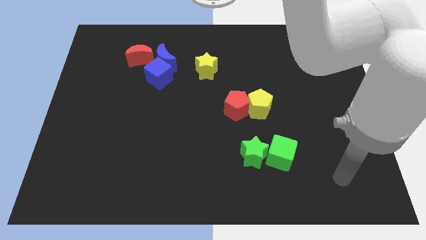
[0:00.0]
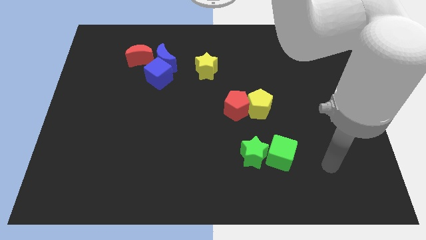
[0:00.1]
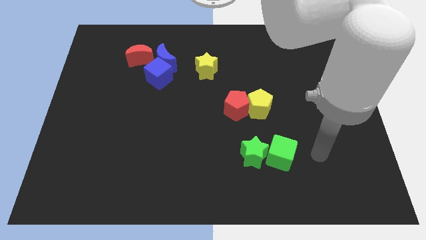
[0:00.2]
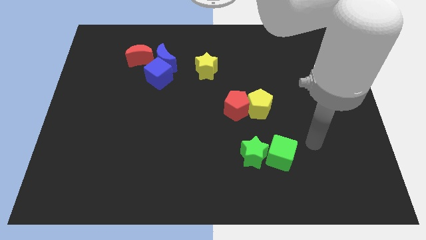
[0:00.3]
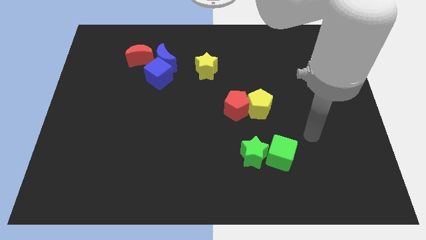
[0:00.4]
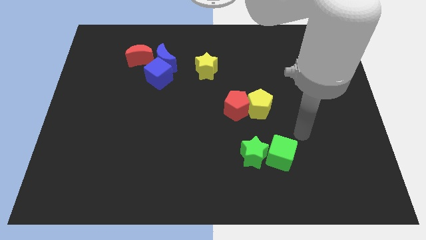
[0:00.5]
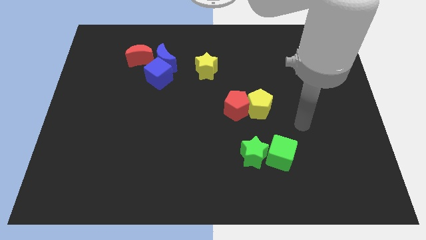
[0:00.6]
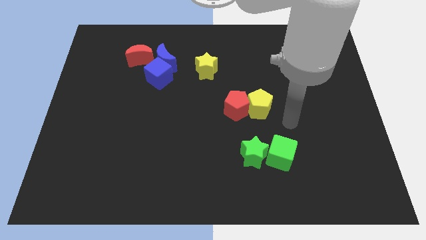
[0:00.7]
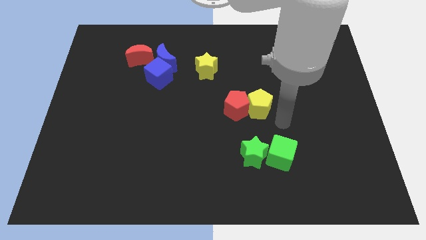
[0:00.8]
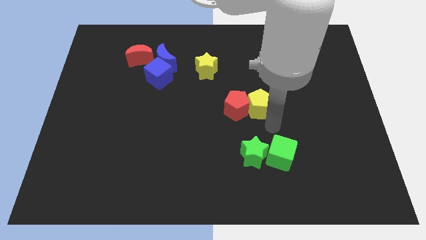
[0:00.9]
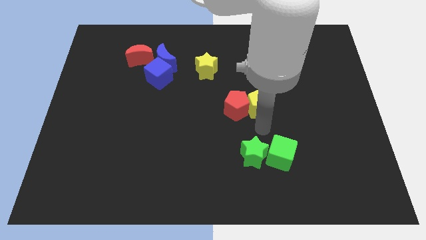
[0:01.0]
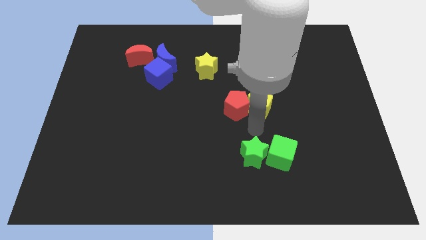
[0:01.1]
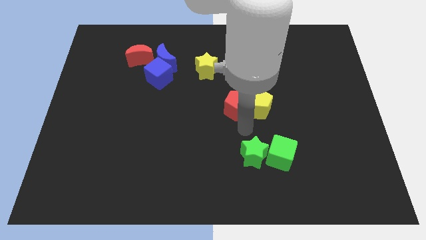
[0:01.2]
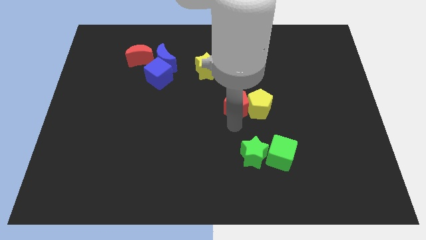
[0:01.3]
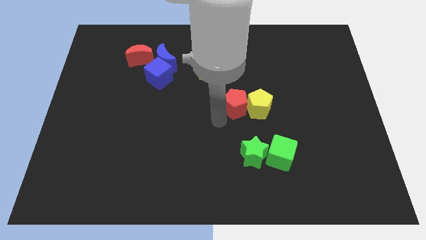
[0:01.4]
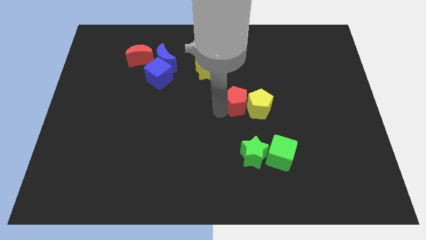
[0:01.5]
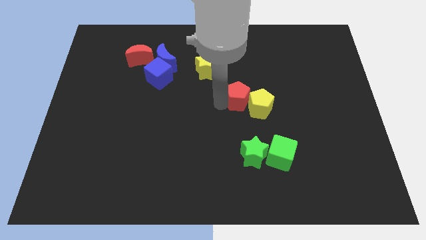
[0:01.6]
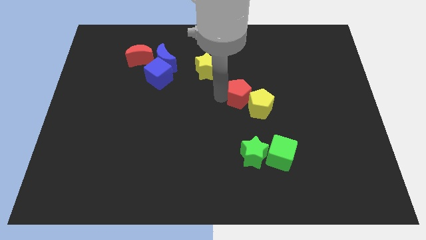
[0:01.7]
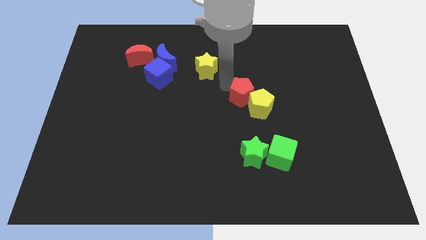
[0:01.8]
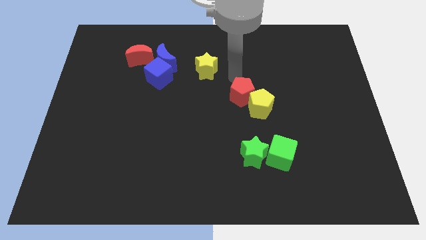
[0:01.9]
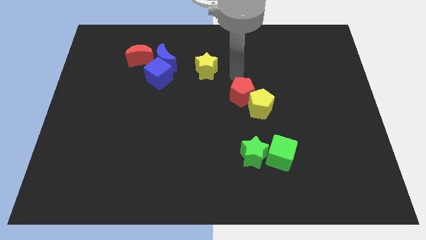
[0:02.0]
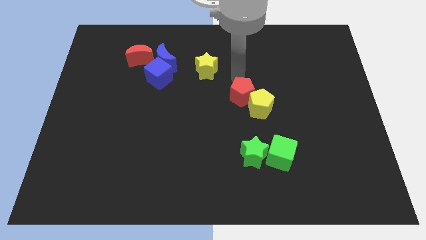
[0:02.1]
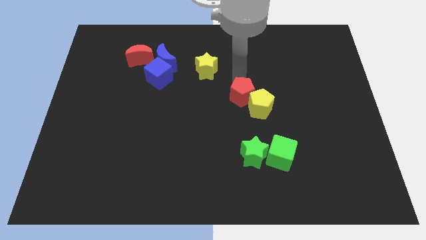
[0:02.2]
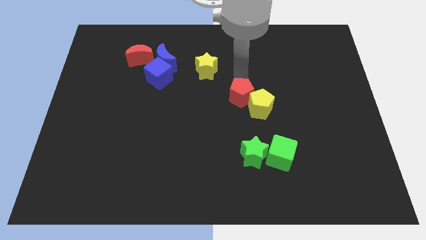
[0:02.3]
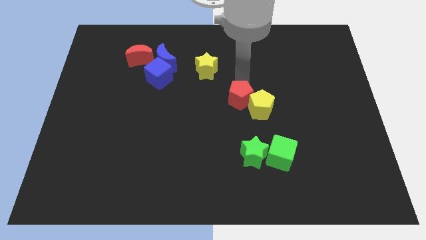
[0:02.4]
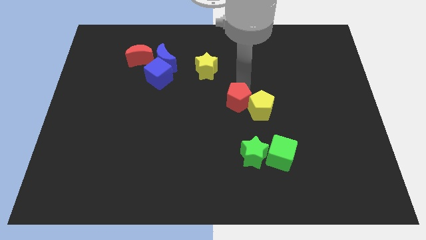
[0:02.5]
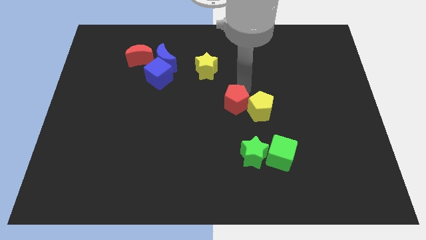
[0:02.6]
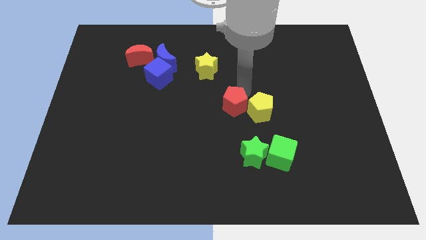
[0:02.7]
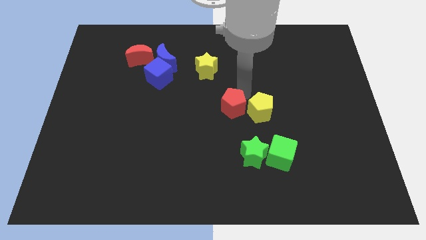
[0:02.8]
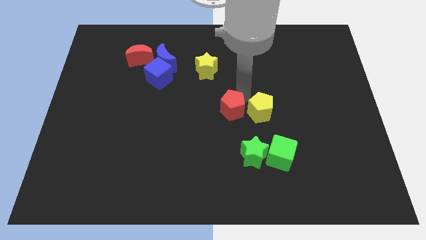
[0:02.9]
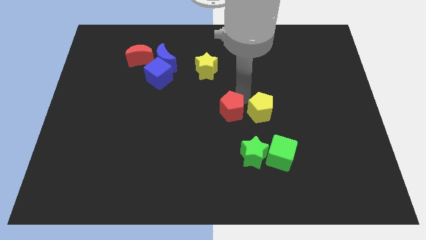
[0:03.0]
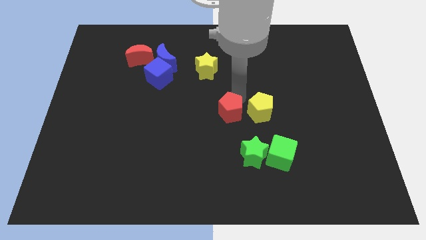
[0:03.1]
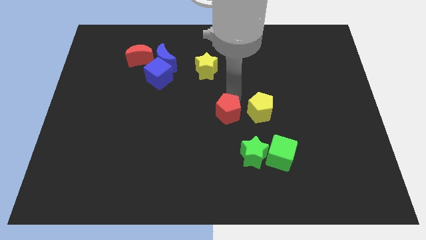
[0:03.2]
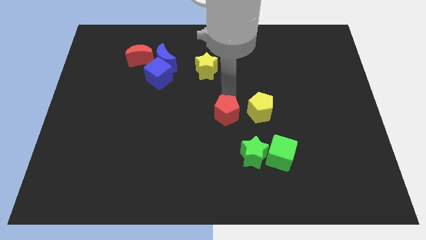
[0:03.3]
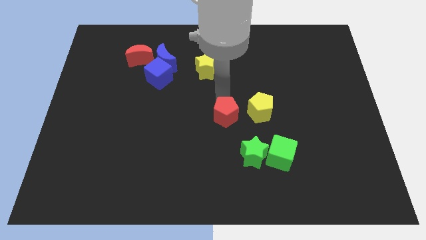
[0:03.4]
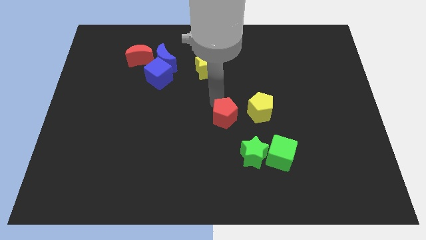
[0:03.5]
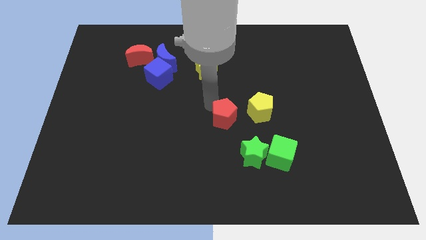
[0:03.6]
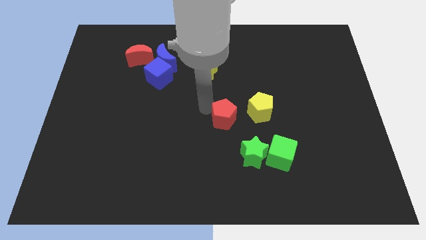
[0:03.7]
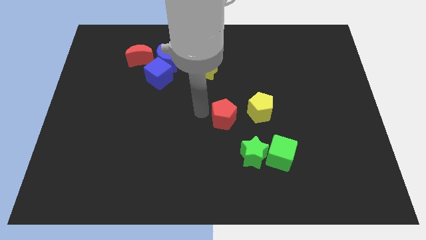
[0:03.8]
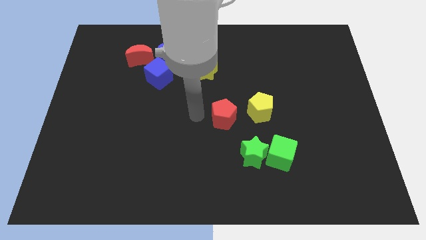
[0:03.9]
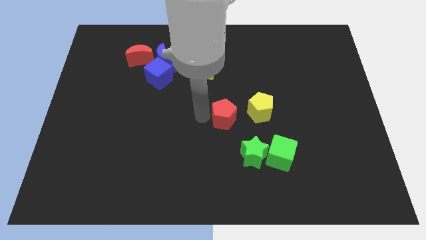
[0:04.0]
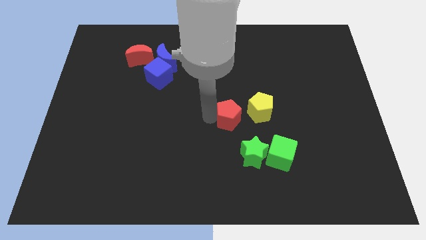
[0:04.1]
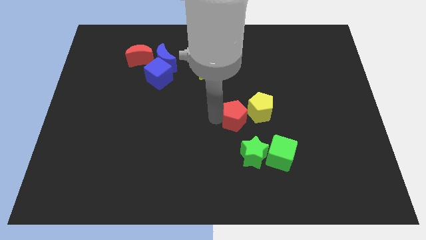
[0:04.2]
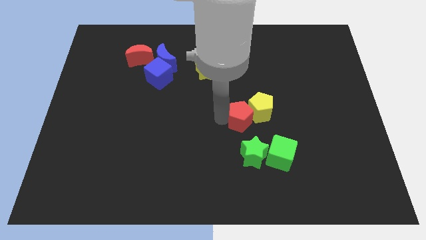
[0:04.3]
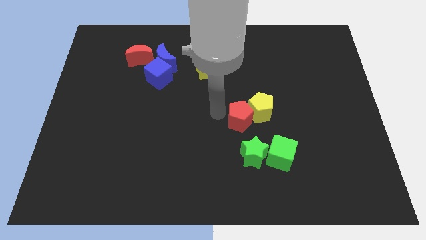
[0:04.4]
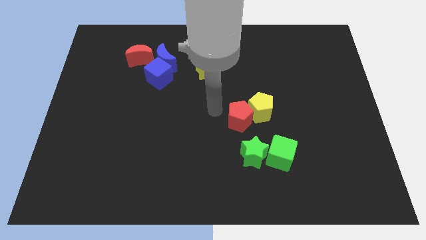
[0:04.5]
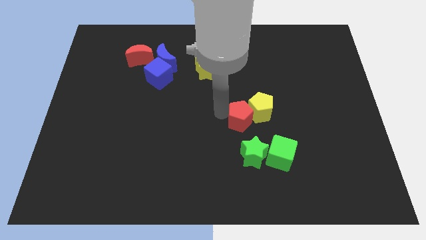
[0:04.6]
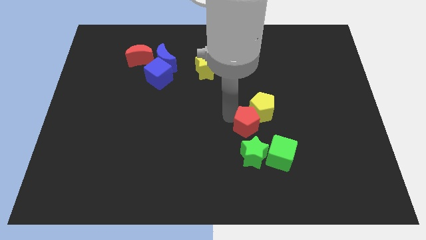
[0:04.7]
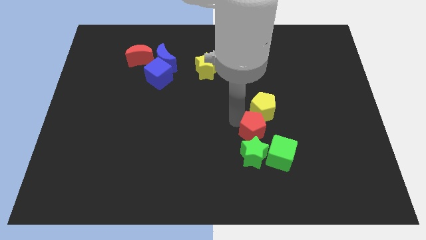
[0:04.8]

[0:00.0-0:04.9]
push the red pentagon to the top right of the green star

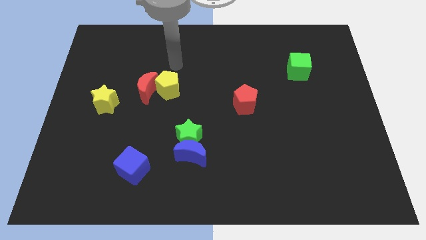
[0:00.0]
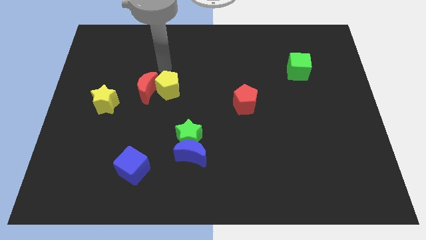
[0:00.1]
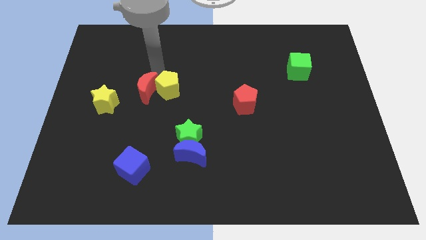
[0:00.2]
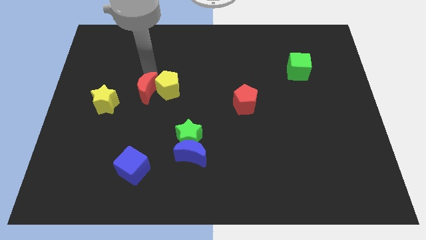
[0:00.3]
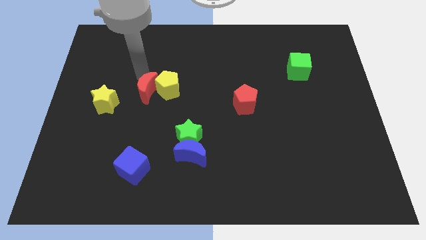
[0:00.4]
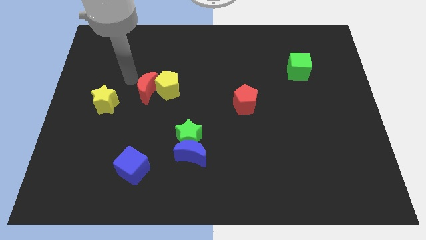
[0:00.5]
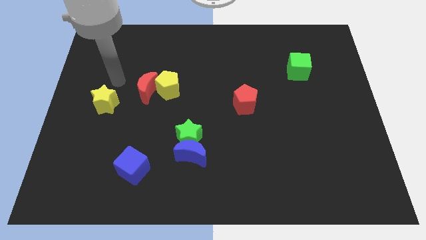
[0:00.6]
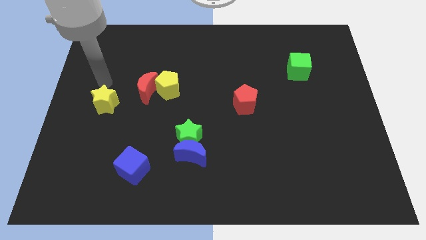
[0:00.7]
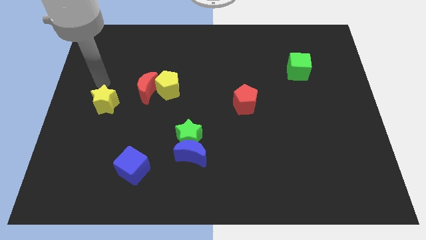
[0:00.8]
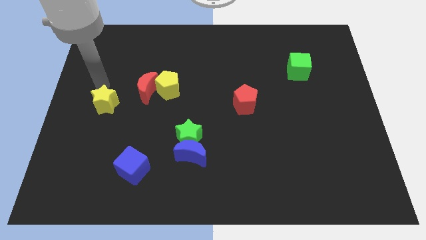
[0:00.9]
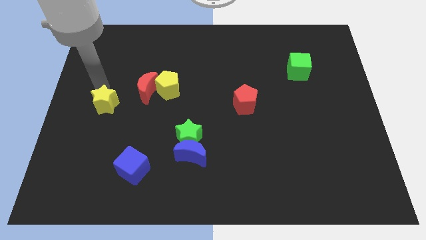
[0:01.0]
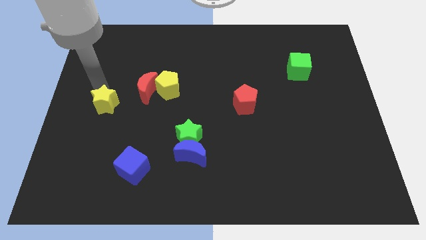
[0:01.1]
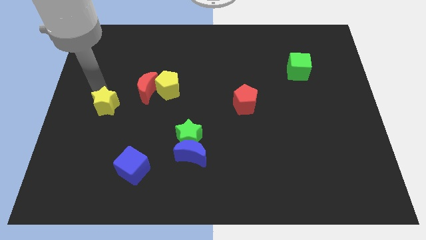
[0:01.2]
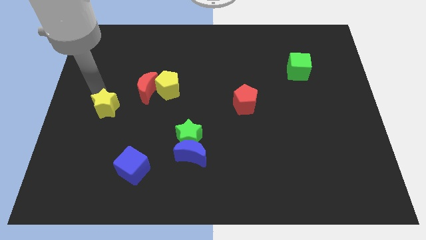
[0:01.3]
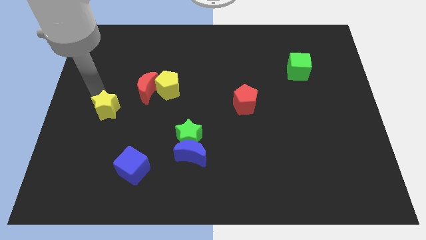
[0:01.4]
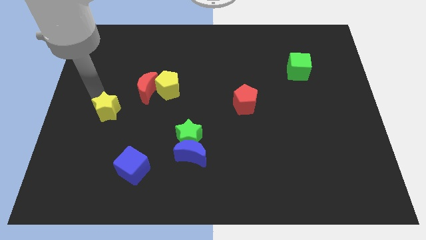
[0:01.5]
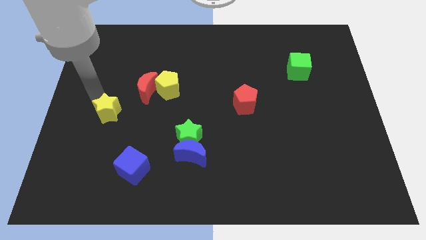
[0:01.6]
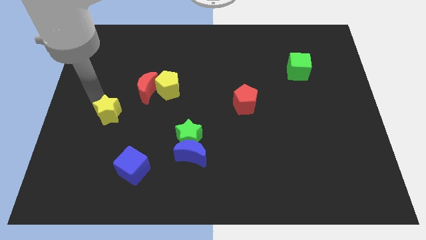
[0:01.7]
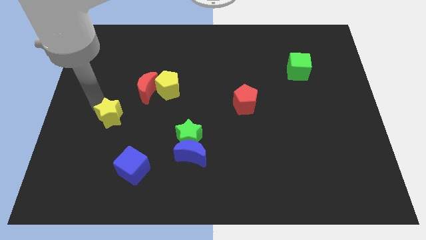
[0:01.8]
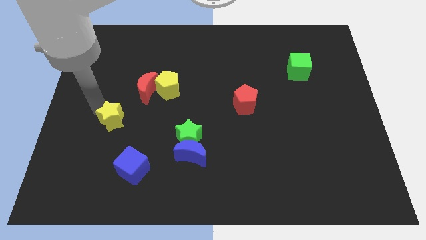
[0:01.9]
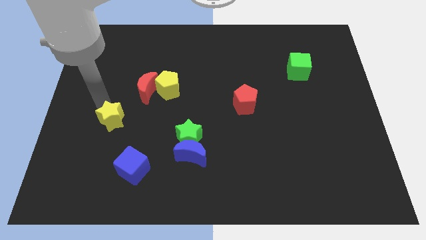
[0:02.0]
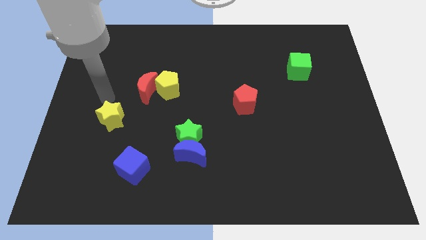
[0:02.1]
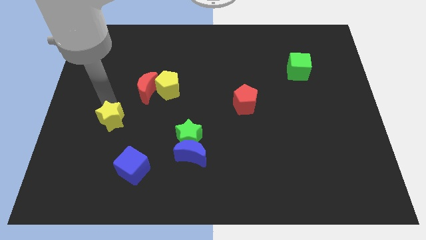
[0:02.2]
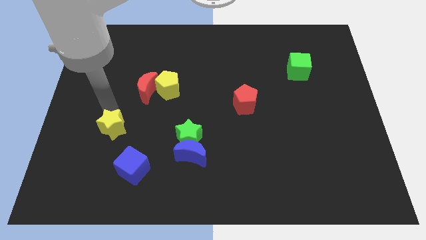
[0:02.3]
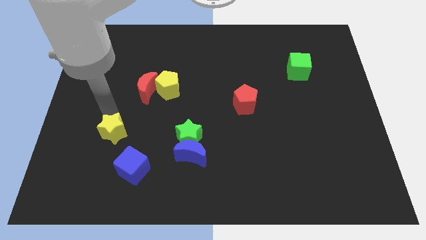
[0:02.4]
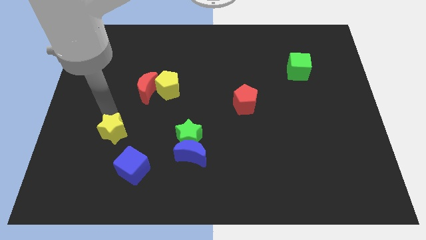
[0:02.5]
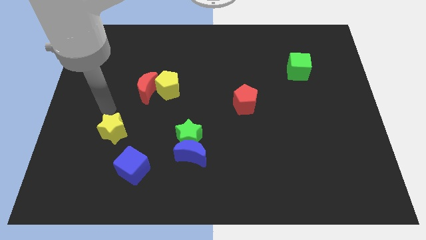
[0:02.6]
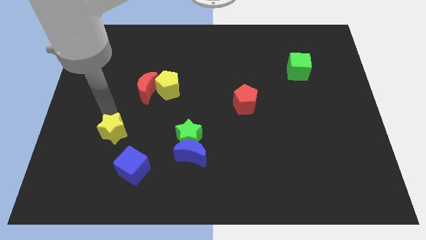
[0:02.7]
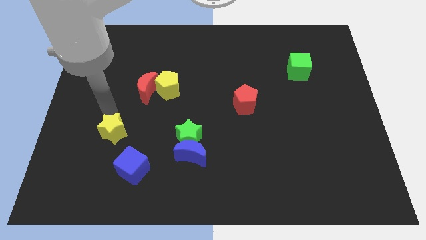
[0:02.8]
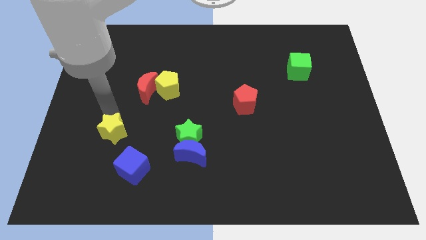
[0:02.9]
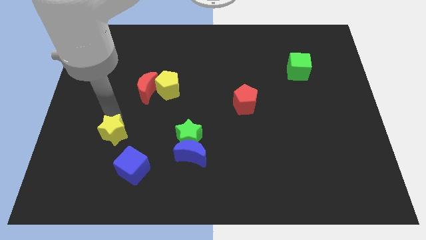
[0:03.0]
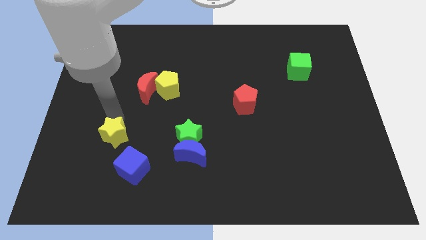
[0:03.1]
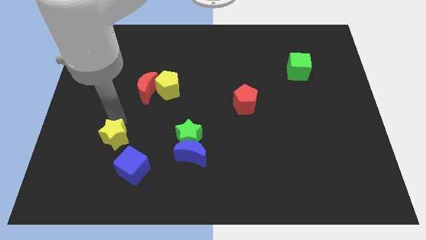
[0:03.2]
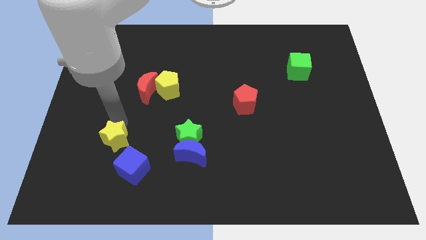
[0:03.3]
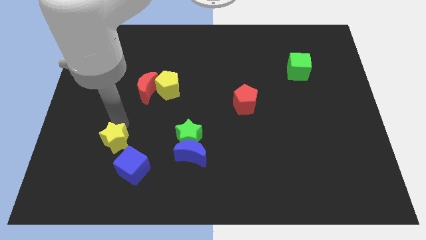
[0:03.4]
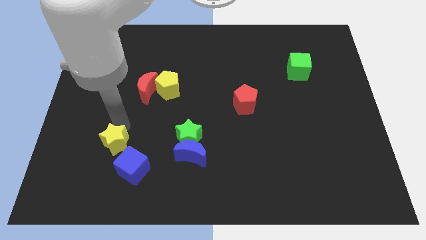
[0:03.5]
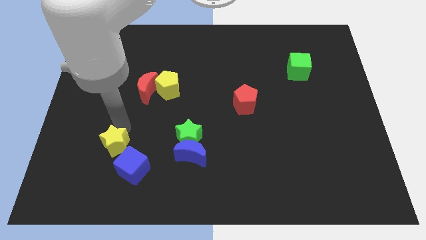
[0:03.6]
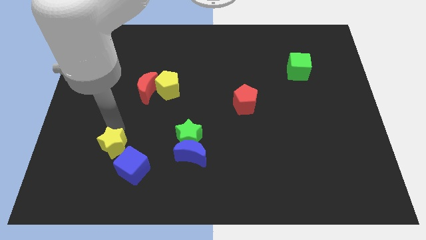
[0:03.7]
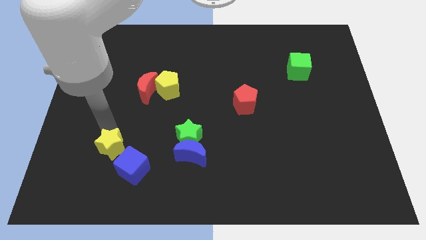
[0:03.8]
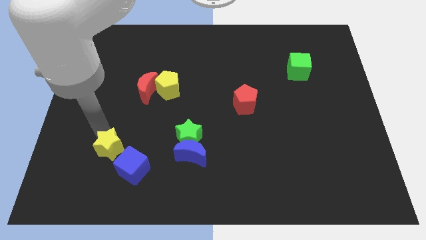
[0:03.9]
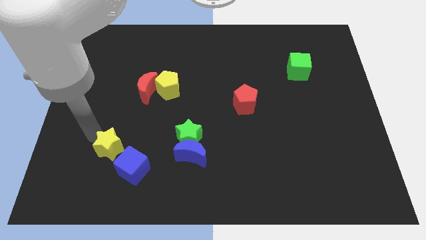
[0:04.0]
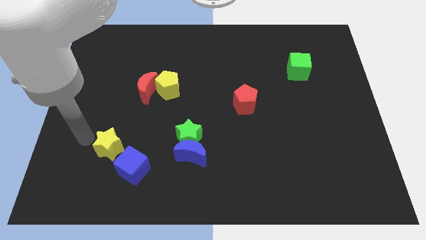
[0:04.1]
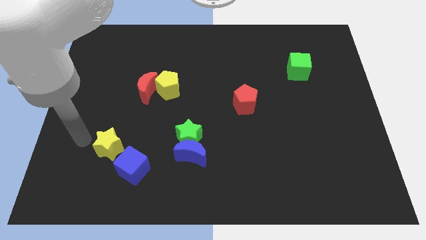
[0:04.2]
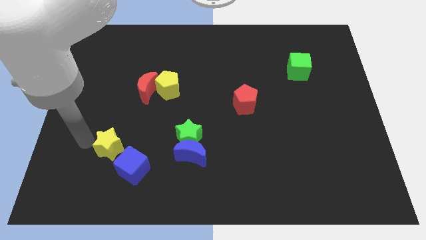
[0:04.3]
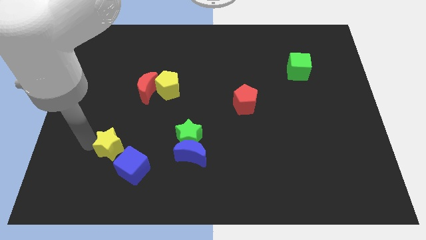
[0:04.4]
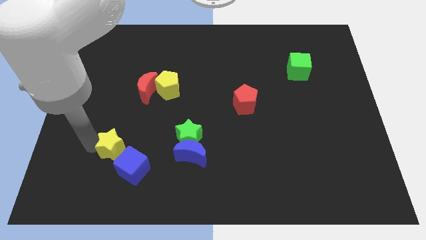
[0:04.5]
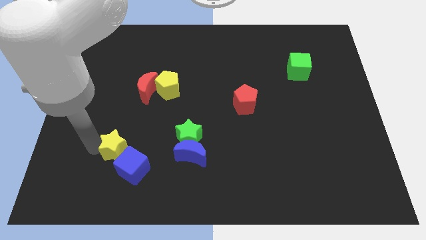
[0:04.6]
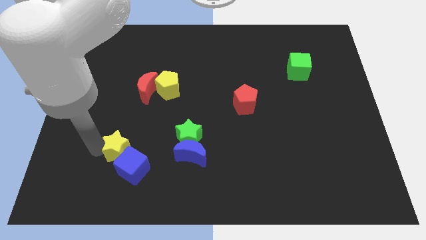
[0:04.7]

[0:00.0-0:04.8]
push the yellow star to the left side of the blue moon
